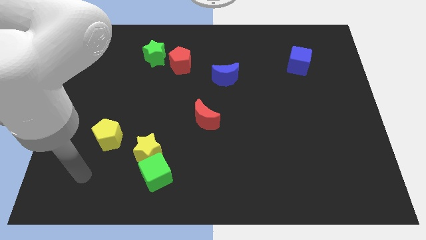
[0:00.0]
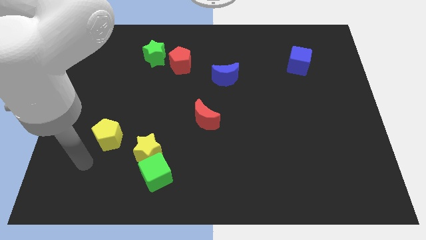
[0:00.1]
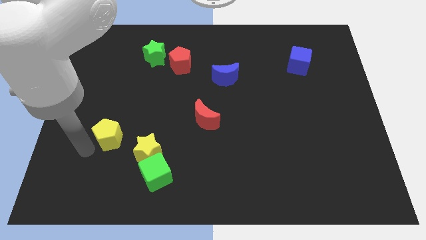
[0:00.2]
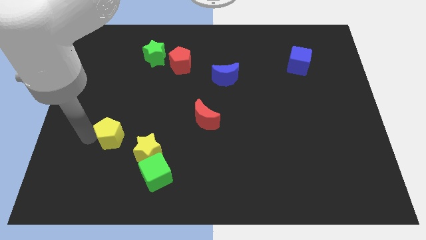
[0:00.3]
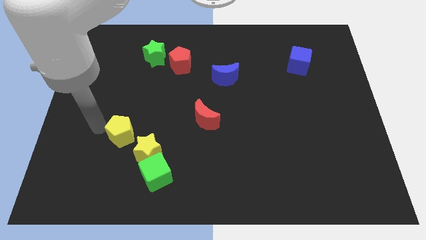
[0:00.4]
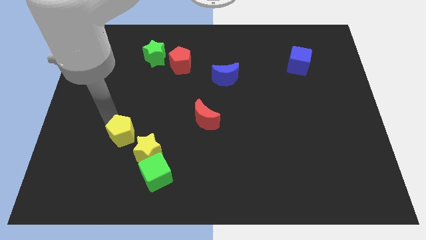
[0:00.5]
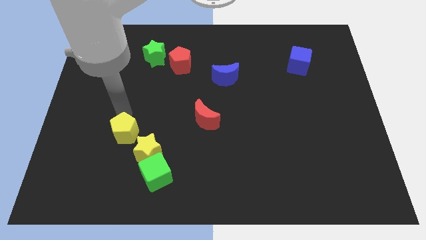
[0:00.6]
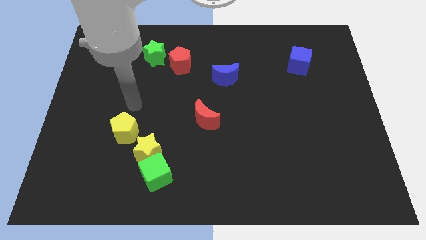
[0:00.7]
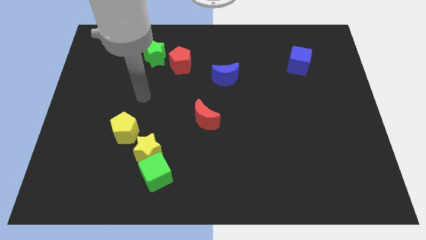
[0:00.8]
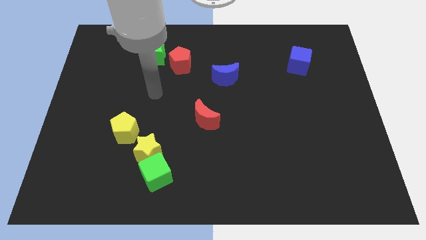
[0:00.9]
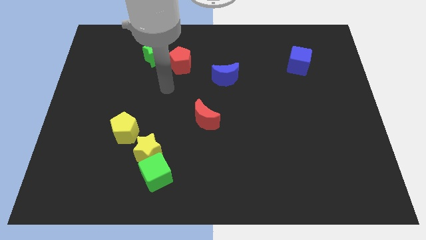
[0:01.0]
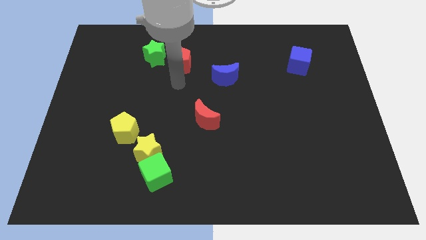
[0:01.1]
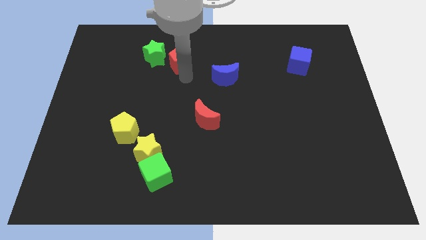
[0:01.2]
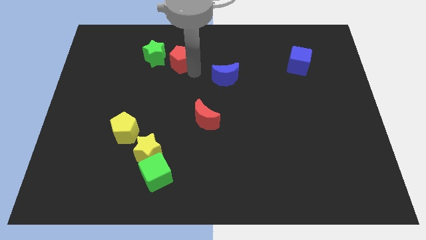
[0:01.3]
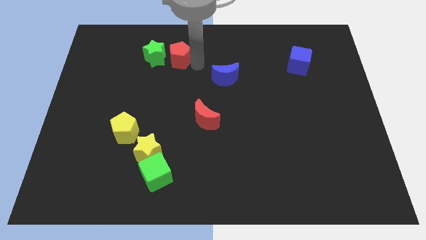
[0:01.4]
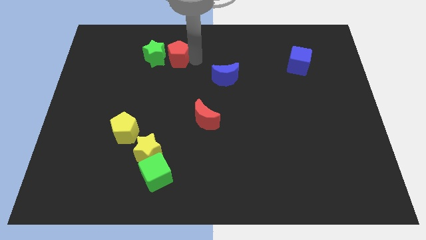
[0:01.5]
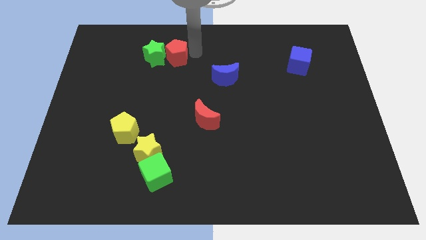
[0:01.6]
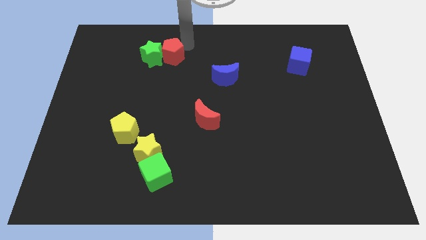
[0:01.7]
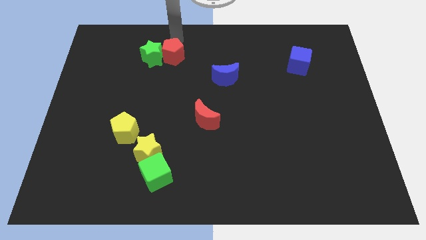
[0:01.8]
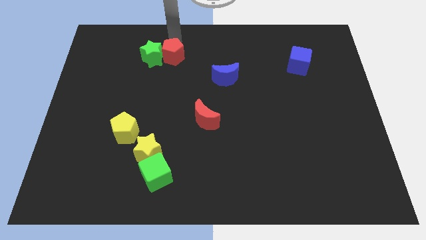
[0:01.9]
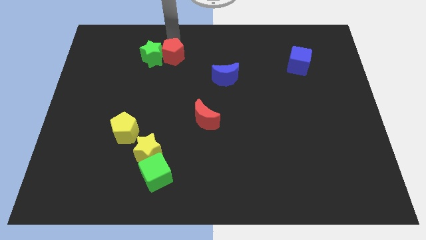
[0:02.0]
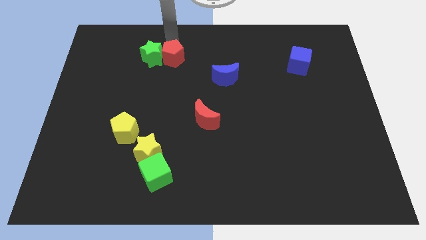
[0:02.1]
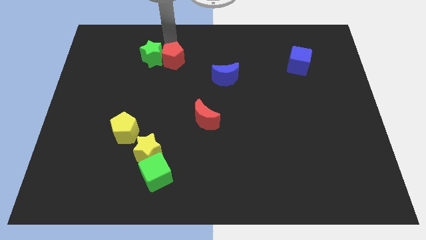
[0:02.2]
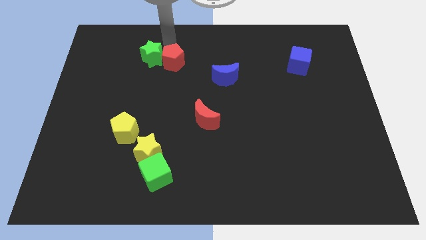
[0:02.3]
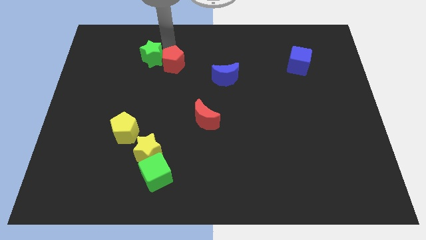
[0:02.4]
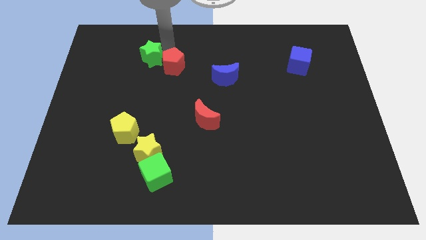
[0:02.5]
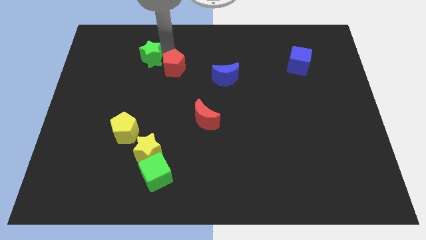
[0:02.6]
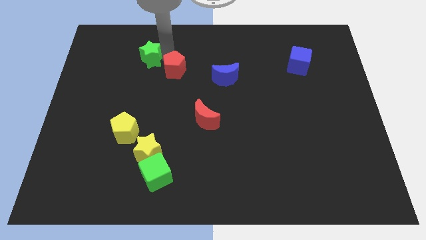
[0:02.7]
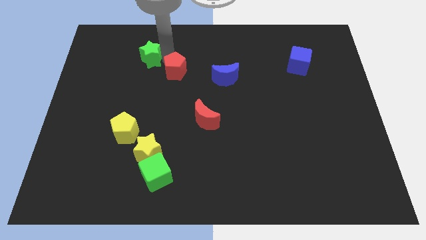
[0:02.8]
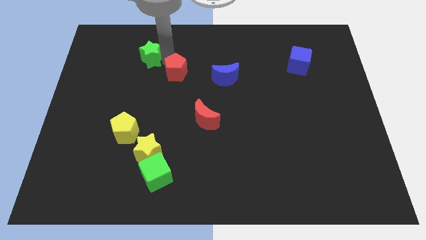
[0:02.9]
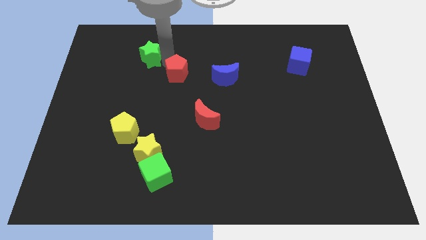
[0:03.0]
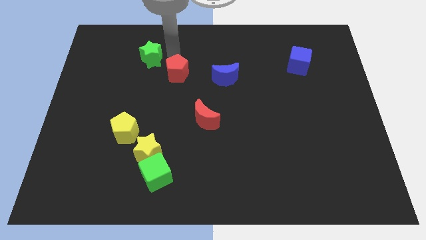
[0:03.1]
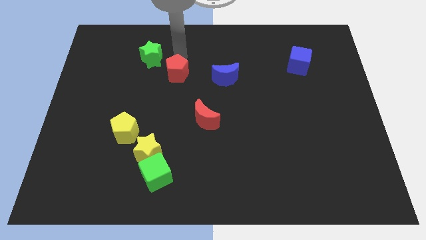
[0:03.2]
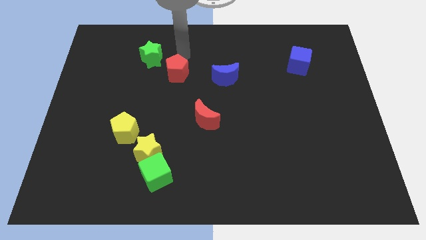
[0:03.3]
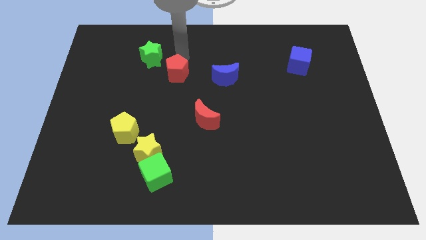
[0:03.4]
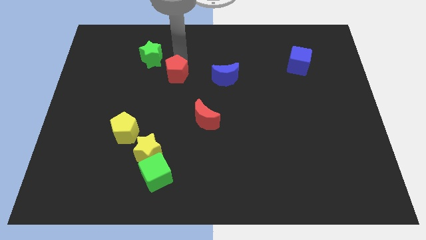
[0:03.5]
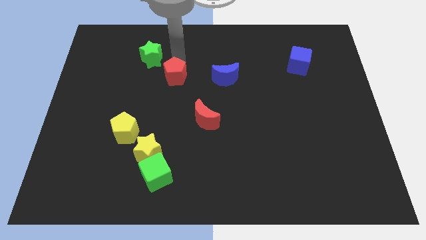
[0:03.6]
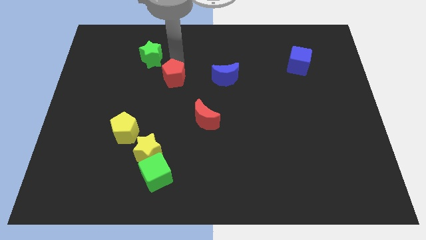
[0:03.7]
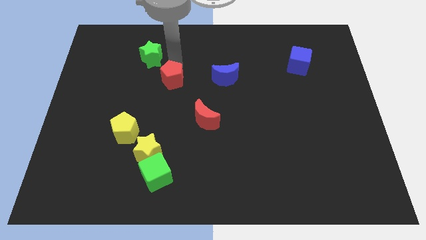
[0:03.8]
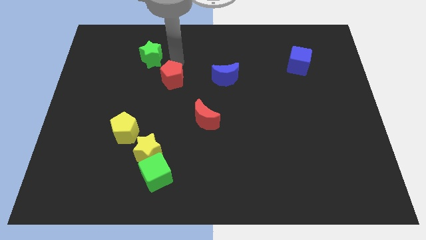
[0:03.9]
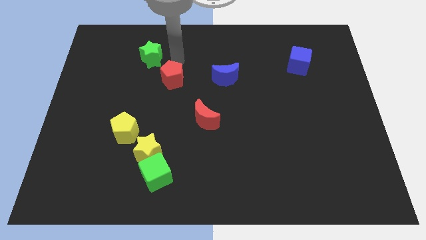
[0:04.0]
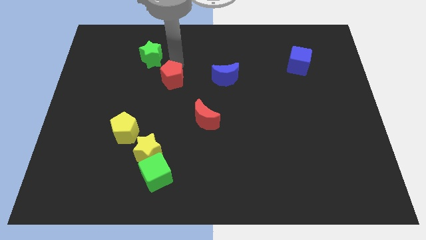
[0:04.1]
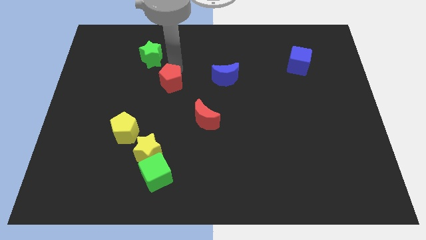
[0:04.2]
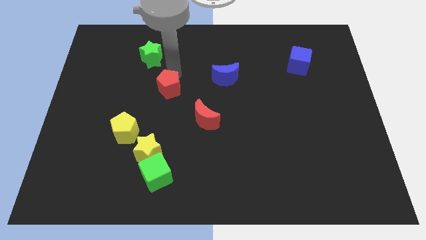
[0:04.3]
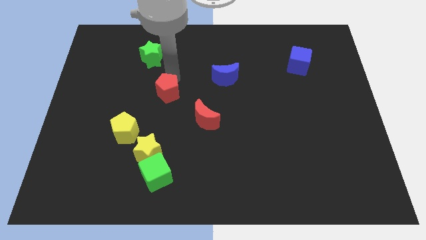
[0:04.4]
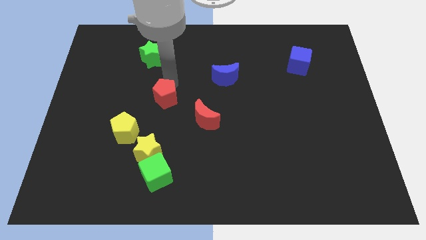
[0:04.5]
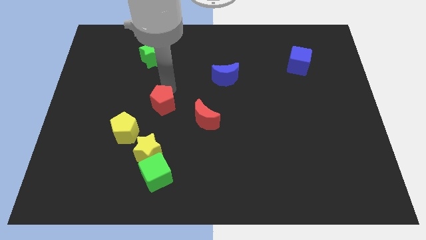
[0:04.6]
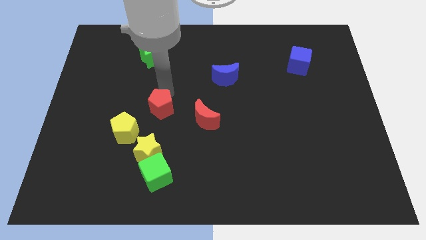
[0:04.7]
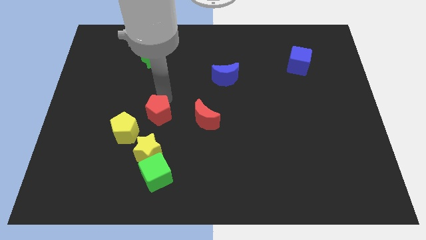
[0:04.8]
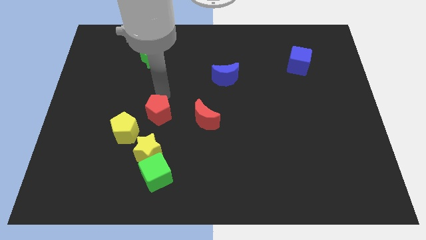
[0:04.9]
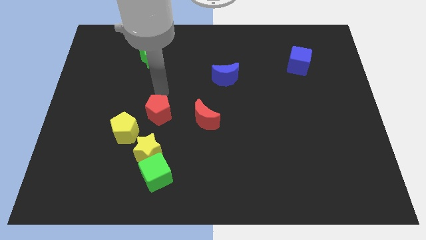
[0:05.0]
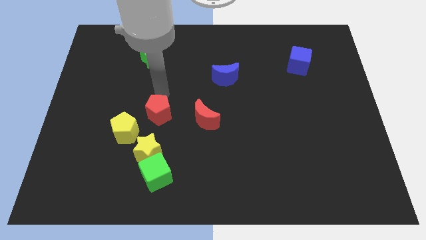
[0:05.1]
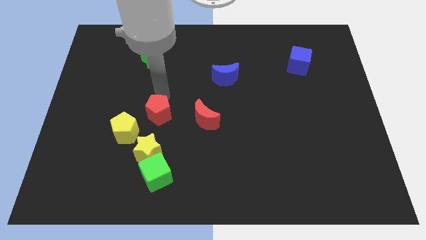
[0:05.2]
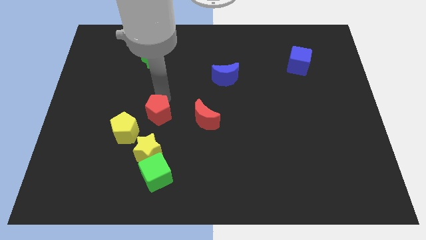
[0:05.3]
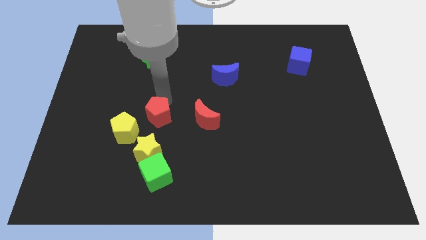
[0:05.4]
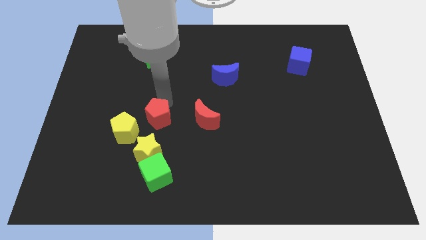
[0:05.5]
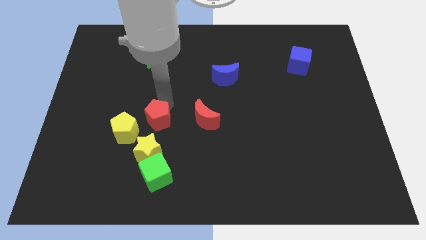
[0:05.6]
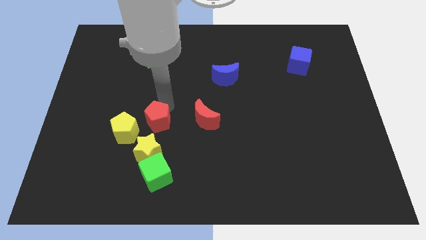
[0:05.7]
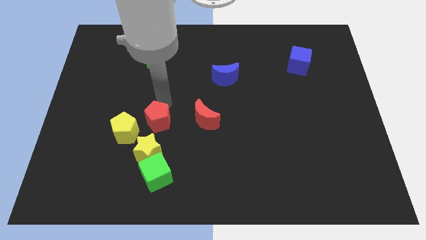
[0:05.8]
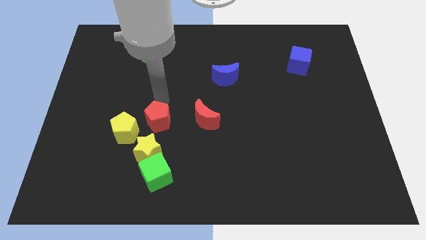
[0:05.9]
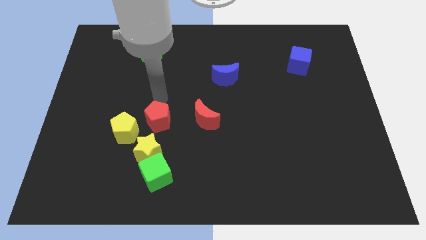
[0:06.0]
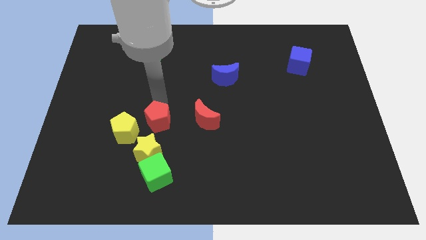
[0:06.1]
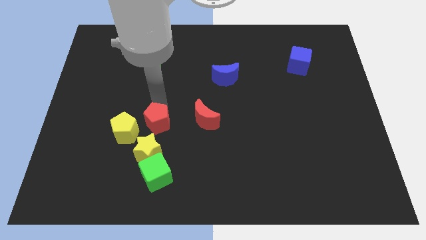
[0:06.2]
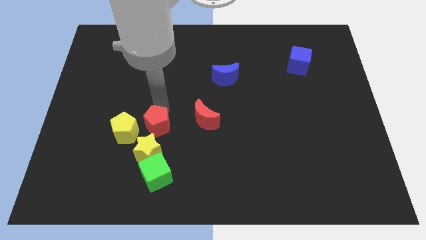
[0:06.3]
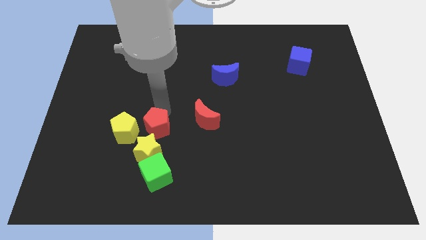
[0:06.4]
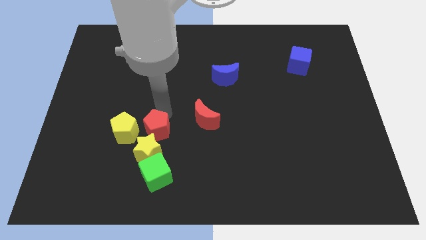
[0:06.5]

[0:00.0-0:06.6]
push the red pentagon close to the yellow star
